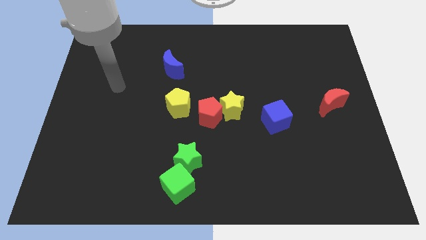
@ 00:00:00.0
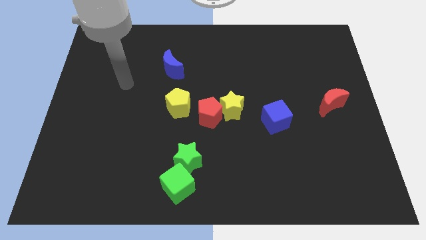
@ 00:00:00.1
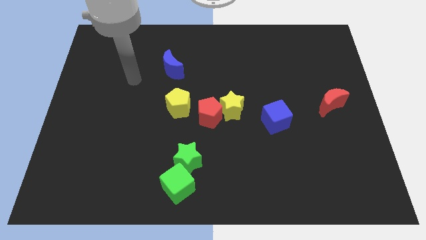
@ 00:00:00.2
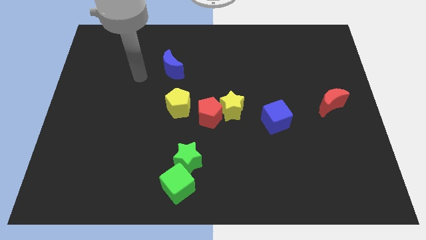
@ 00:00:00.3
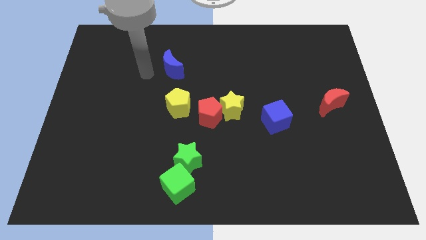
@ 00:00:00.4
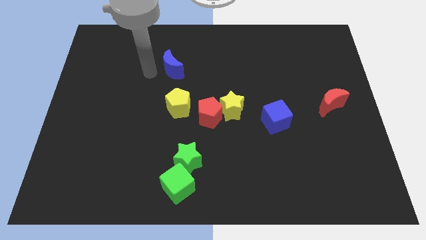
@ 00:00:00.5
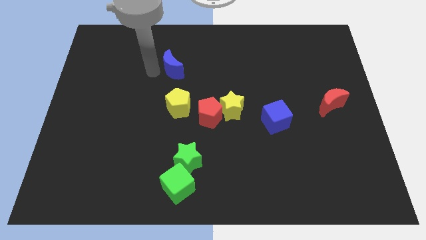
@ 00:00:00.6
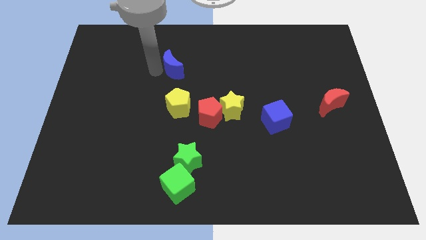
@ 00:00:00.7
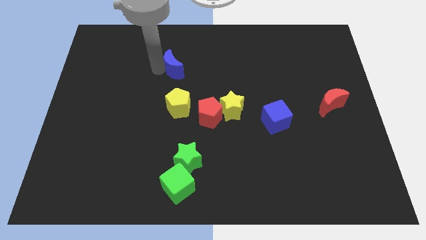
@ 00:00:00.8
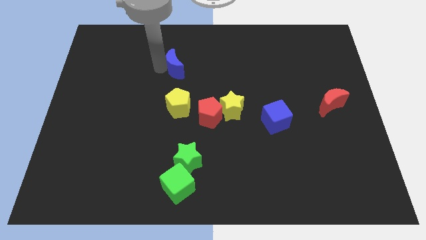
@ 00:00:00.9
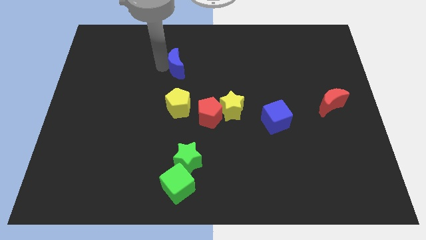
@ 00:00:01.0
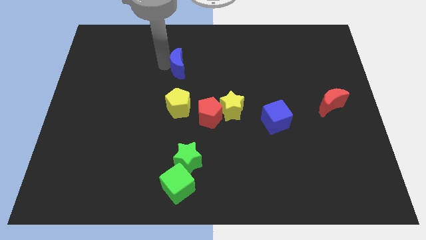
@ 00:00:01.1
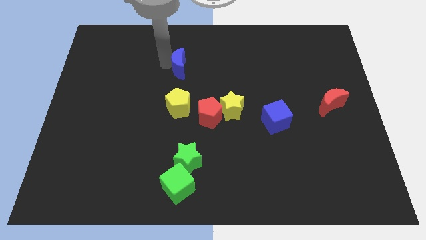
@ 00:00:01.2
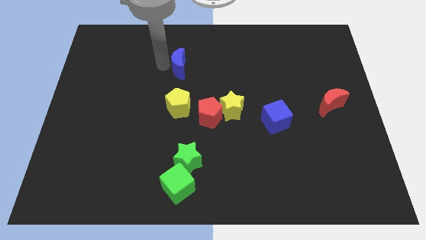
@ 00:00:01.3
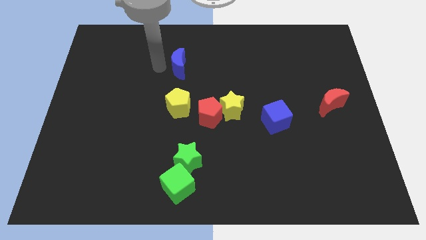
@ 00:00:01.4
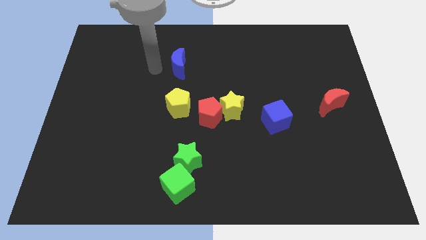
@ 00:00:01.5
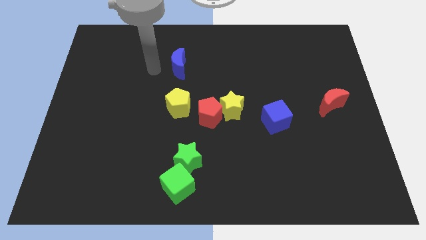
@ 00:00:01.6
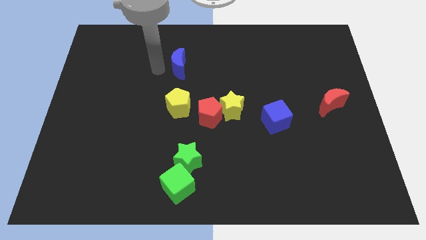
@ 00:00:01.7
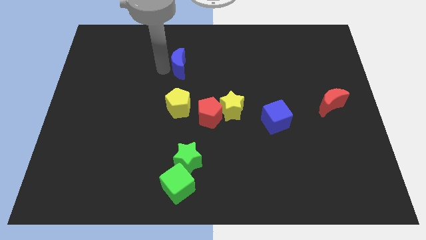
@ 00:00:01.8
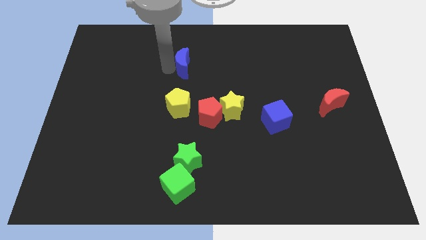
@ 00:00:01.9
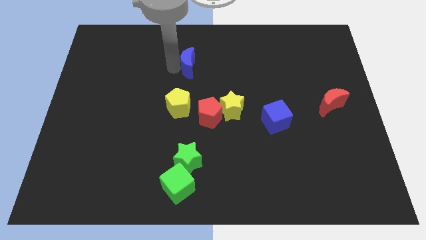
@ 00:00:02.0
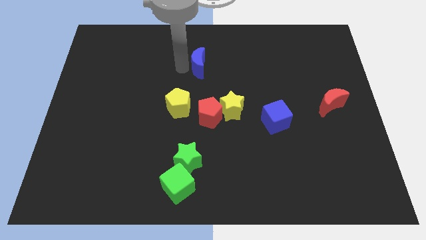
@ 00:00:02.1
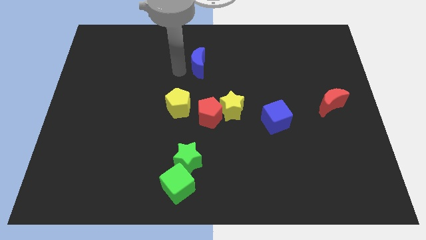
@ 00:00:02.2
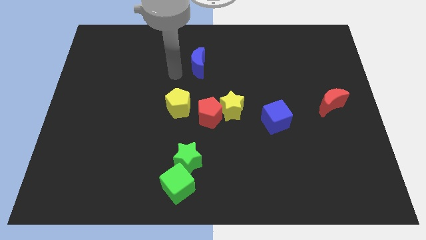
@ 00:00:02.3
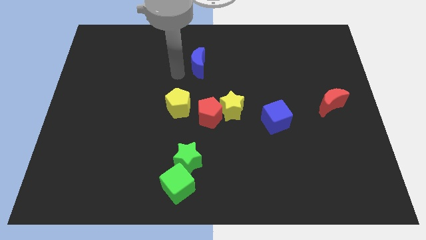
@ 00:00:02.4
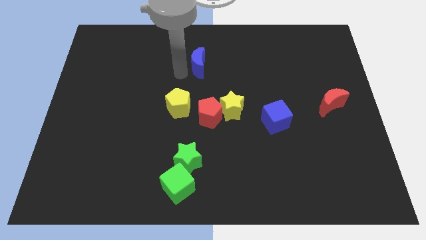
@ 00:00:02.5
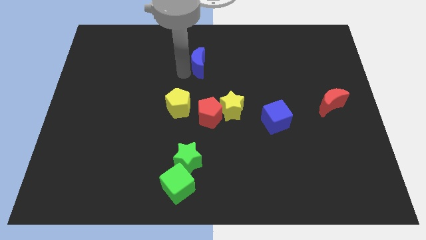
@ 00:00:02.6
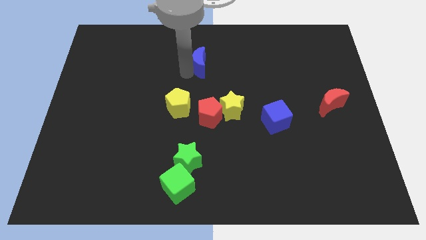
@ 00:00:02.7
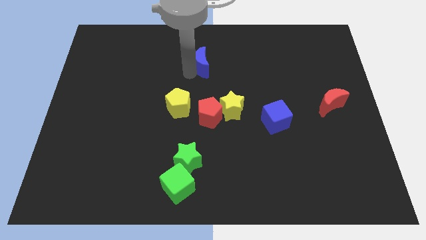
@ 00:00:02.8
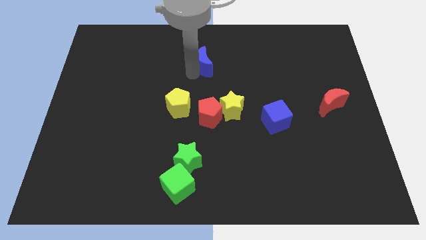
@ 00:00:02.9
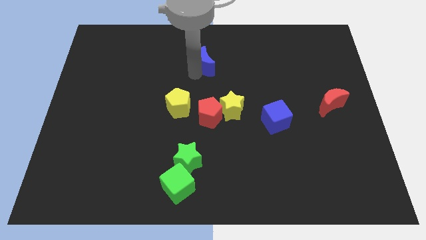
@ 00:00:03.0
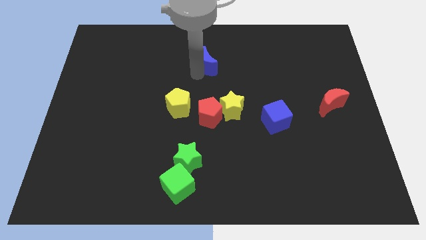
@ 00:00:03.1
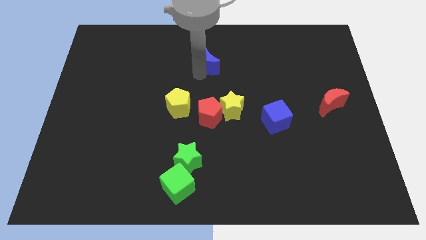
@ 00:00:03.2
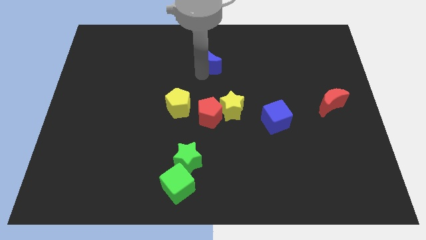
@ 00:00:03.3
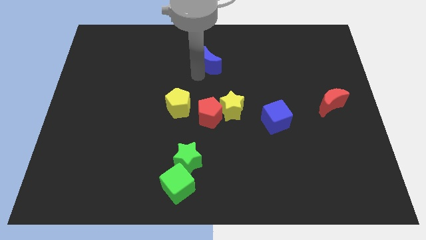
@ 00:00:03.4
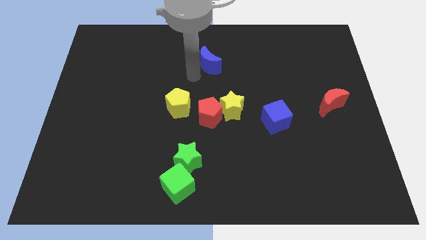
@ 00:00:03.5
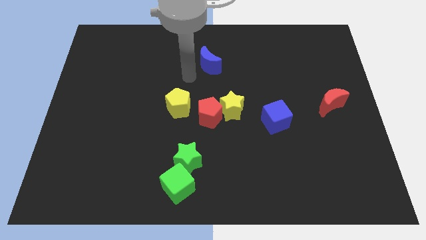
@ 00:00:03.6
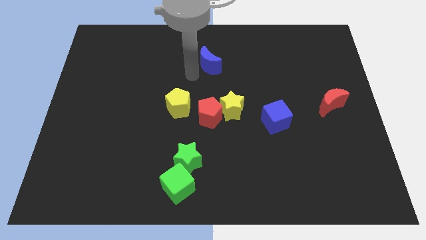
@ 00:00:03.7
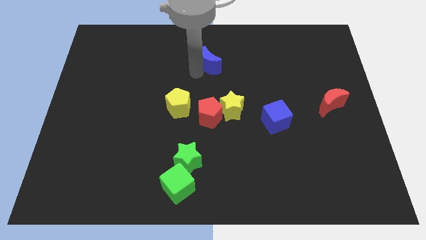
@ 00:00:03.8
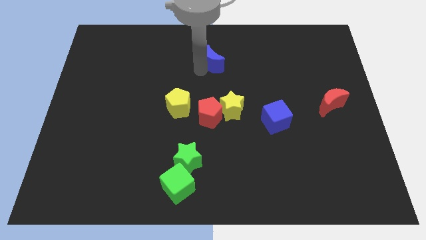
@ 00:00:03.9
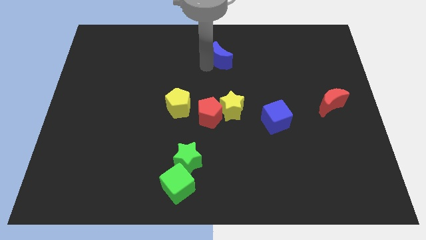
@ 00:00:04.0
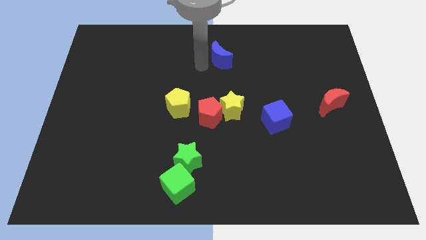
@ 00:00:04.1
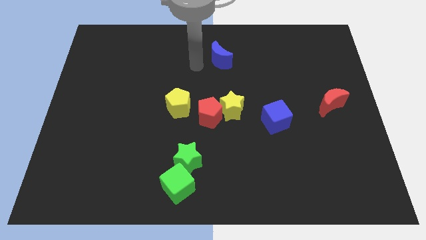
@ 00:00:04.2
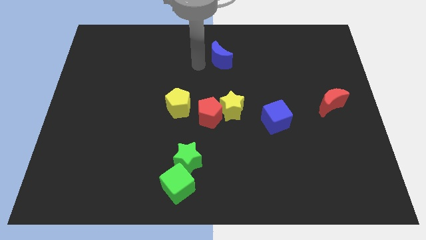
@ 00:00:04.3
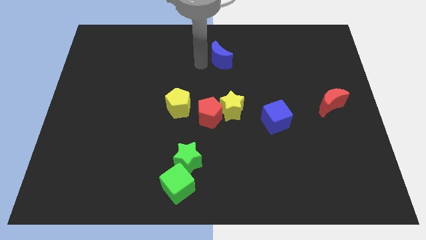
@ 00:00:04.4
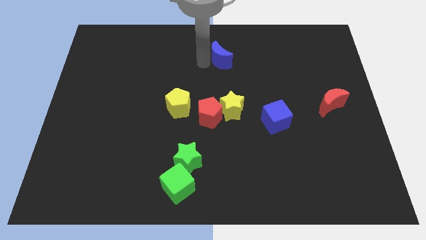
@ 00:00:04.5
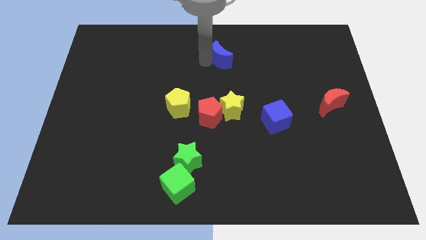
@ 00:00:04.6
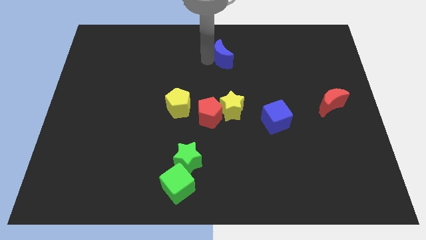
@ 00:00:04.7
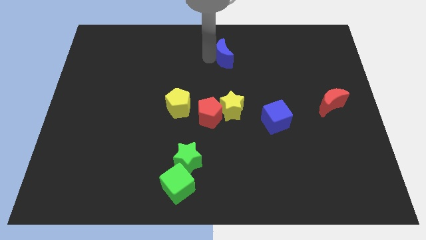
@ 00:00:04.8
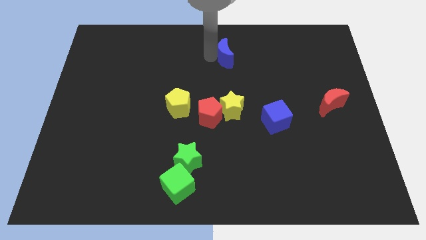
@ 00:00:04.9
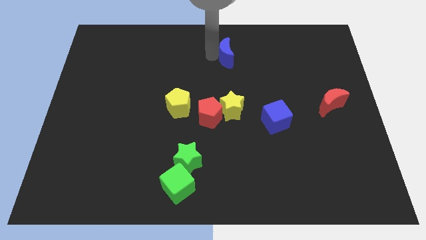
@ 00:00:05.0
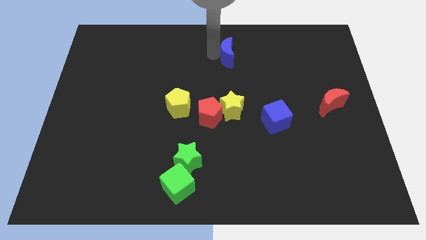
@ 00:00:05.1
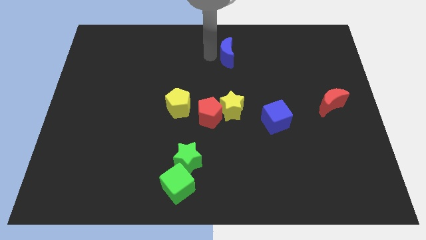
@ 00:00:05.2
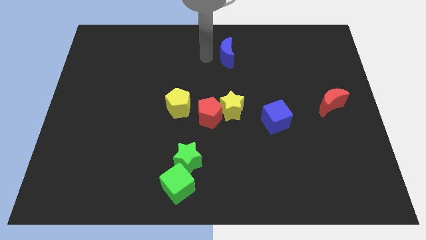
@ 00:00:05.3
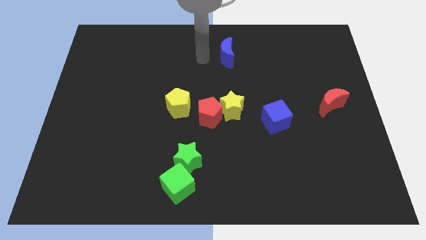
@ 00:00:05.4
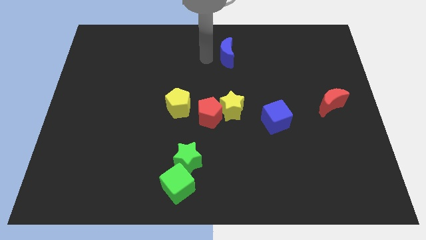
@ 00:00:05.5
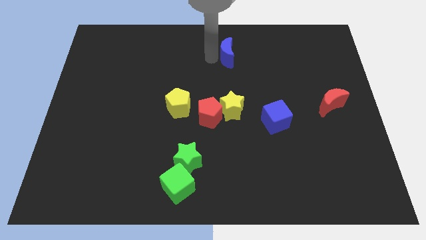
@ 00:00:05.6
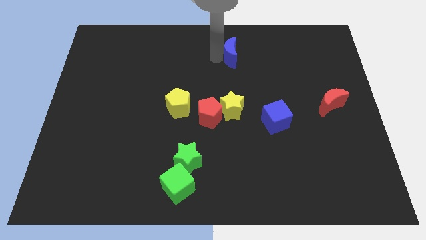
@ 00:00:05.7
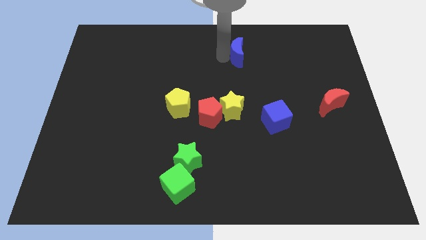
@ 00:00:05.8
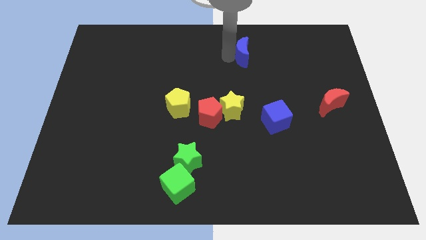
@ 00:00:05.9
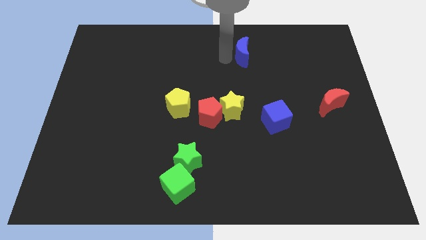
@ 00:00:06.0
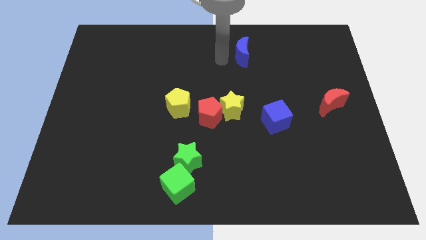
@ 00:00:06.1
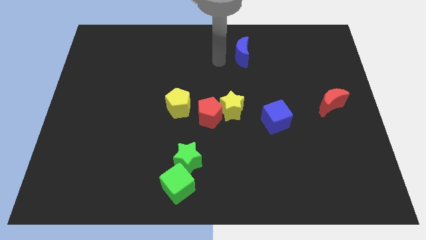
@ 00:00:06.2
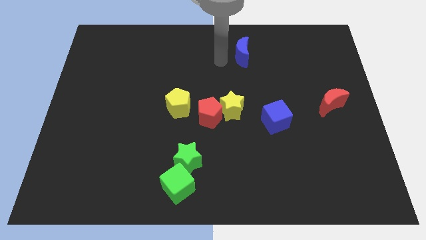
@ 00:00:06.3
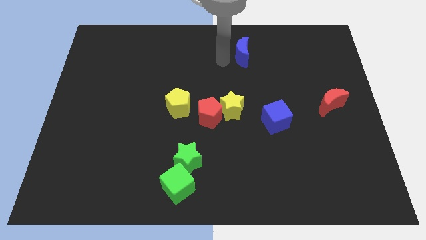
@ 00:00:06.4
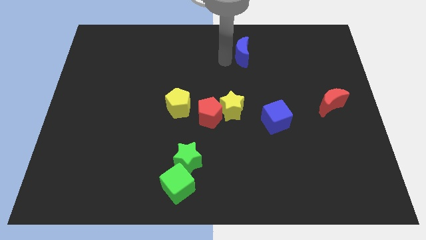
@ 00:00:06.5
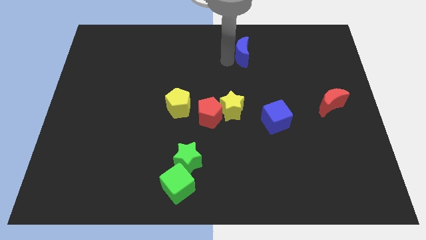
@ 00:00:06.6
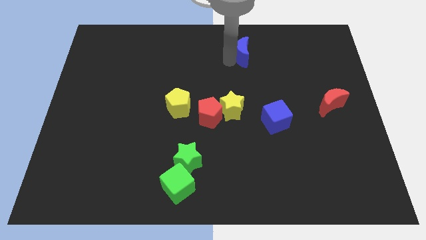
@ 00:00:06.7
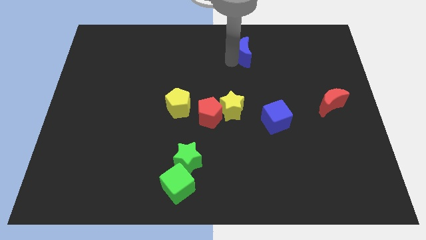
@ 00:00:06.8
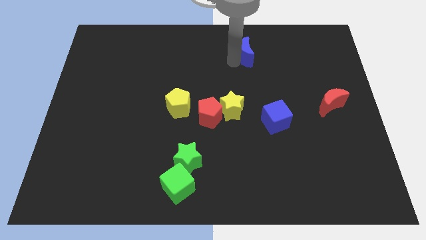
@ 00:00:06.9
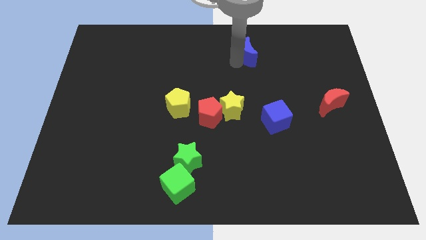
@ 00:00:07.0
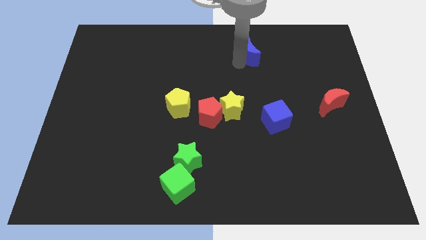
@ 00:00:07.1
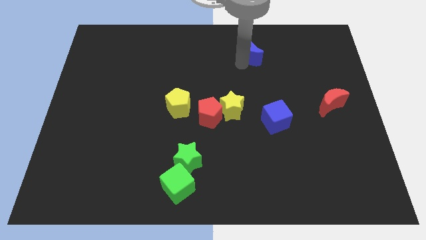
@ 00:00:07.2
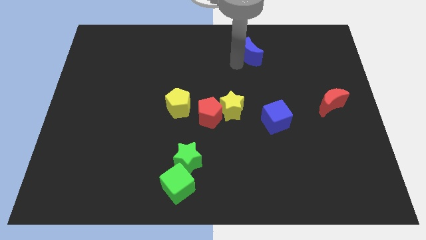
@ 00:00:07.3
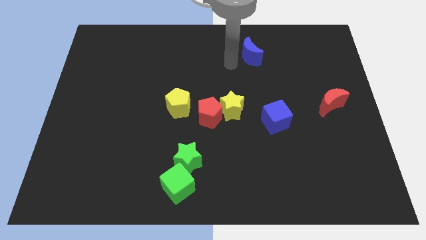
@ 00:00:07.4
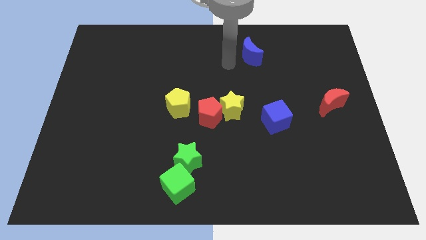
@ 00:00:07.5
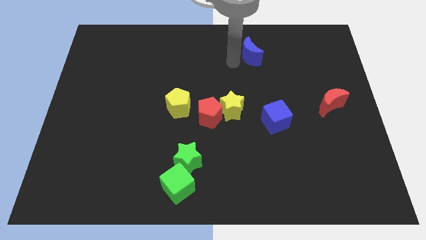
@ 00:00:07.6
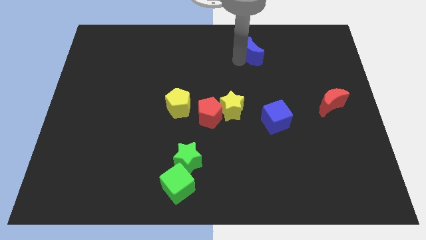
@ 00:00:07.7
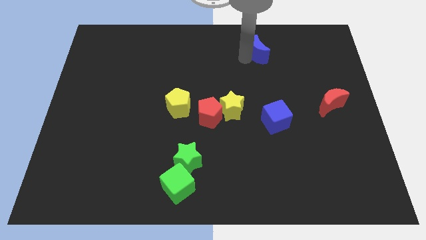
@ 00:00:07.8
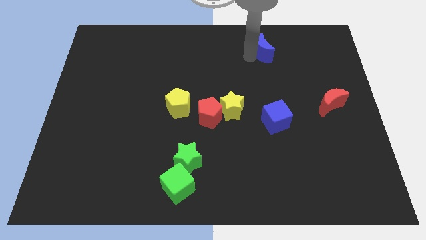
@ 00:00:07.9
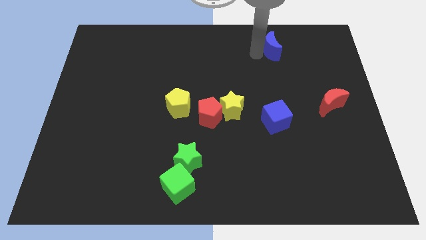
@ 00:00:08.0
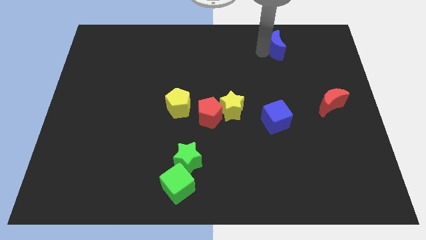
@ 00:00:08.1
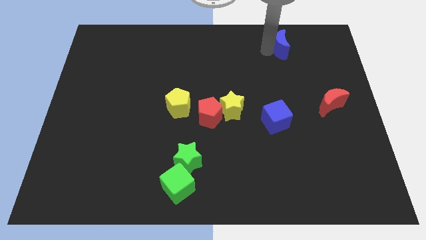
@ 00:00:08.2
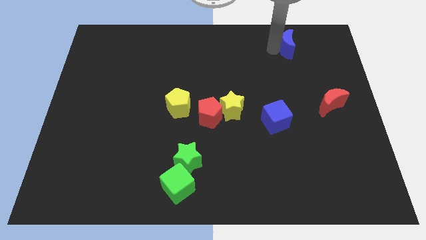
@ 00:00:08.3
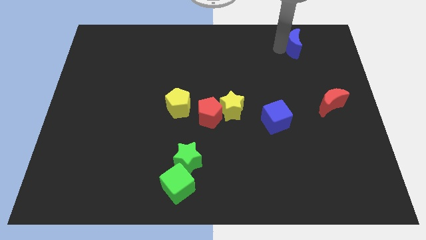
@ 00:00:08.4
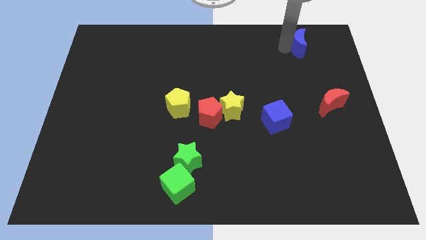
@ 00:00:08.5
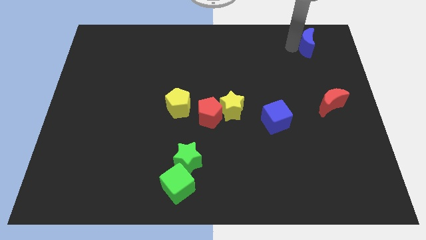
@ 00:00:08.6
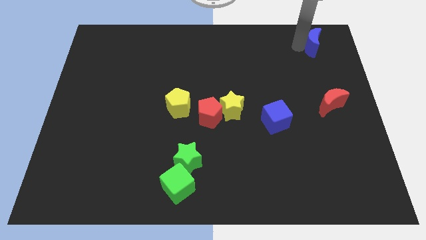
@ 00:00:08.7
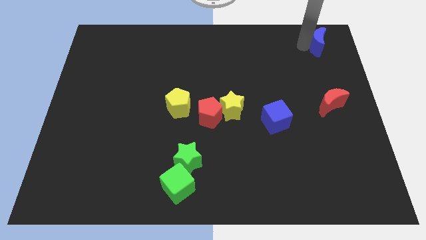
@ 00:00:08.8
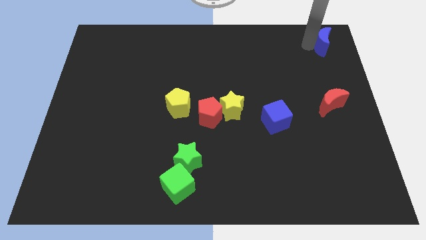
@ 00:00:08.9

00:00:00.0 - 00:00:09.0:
slide the blue moon to the top right corner
